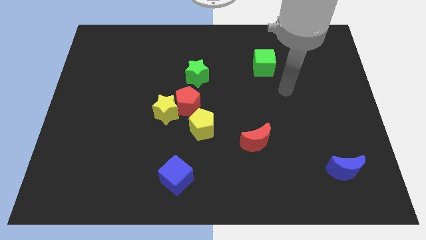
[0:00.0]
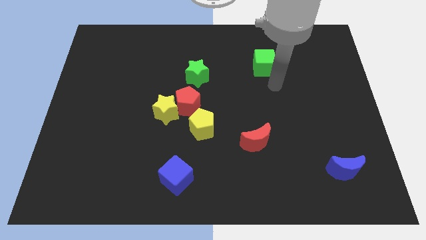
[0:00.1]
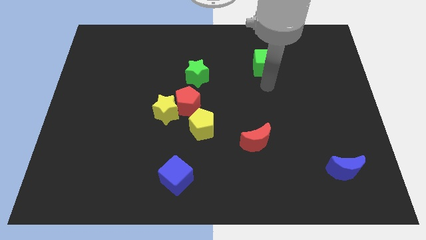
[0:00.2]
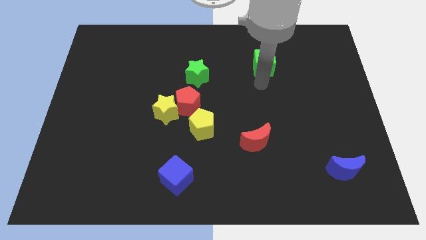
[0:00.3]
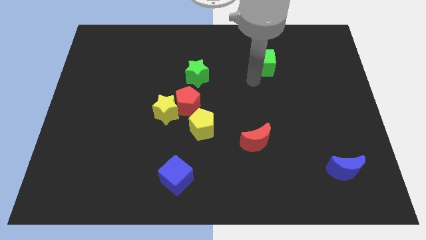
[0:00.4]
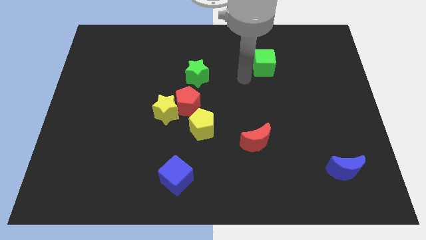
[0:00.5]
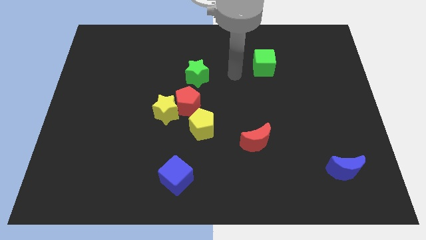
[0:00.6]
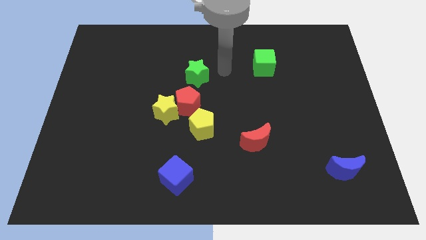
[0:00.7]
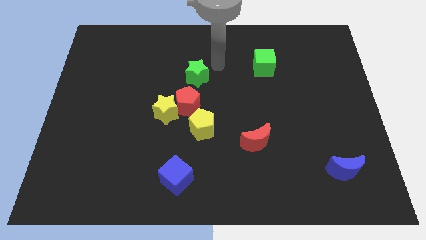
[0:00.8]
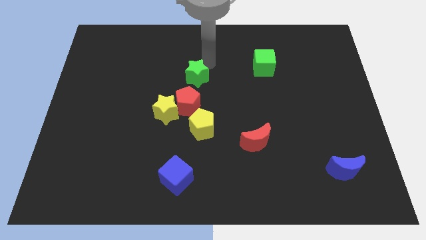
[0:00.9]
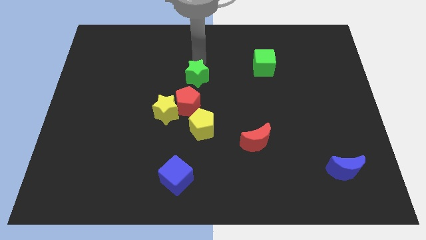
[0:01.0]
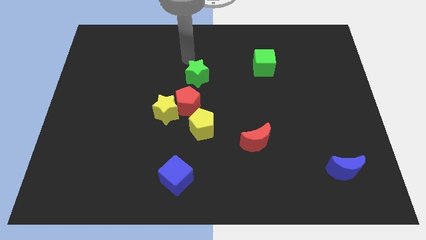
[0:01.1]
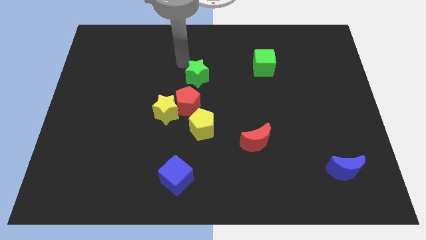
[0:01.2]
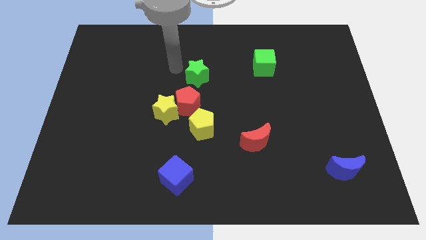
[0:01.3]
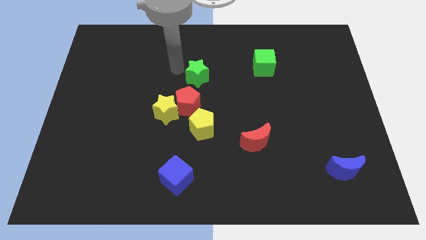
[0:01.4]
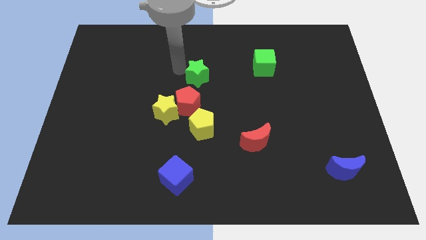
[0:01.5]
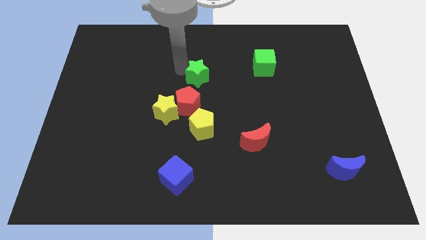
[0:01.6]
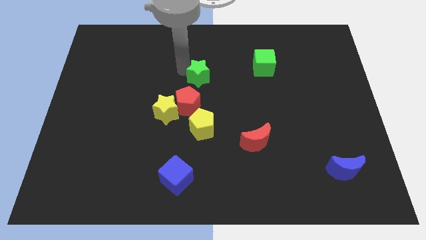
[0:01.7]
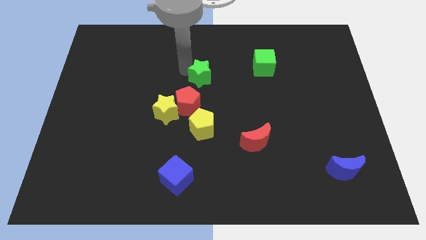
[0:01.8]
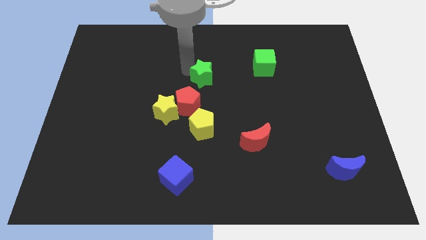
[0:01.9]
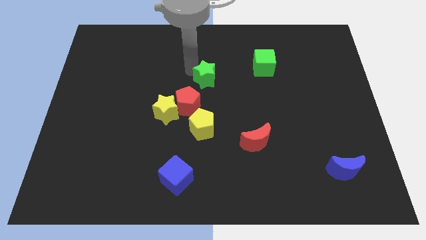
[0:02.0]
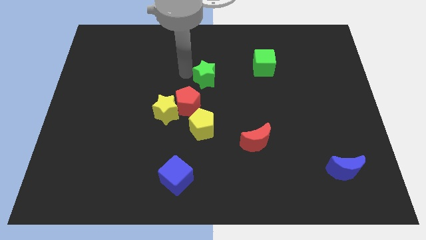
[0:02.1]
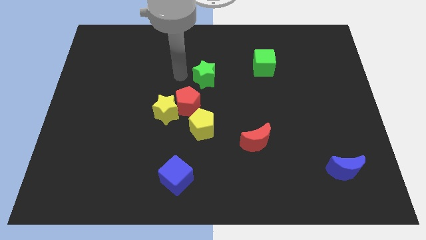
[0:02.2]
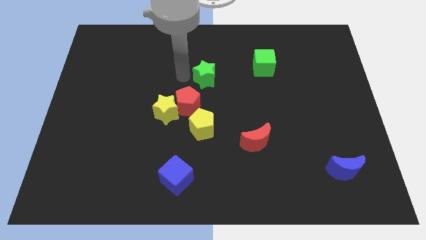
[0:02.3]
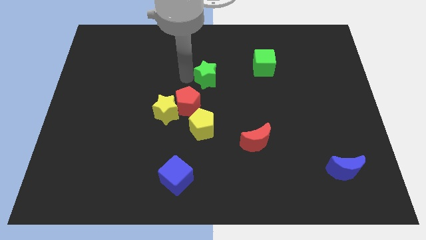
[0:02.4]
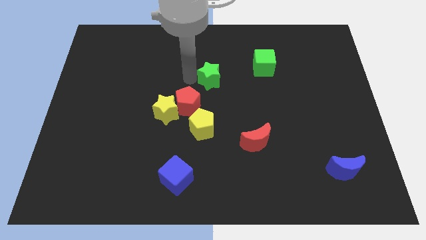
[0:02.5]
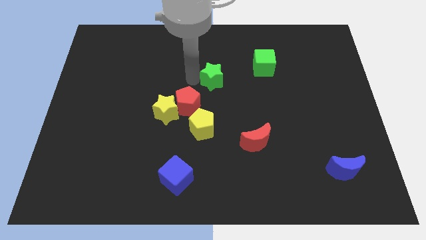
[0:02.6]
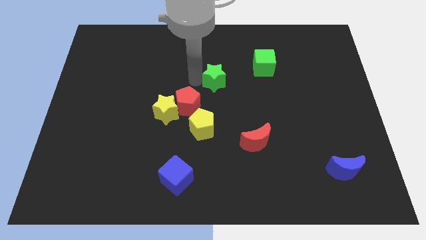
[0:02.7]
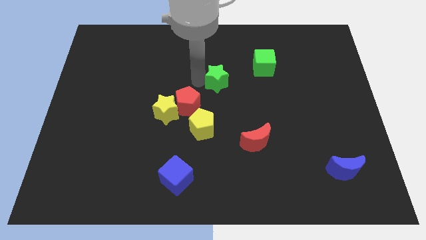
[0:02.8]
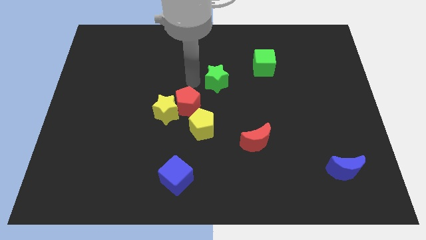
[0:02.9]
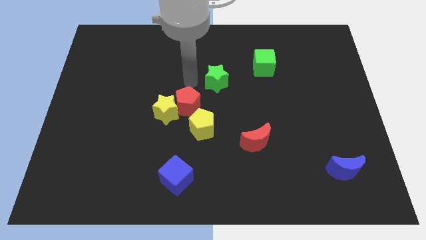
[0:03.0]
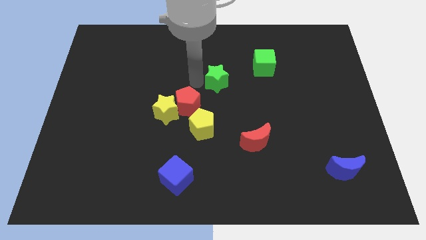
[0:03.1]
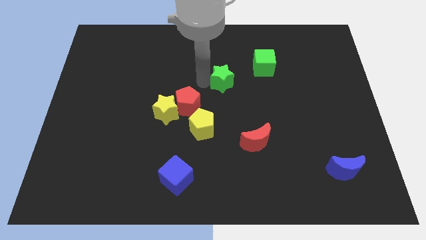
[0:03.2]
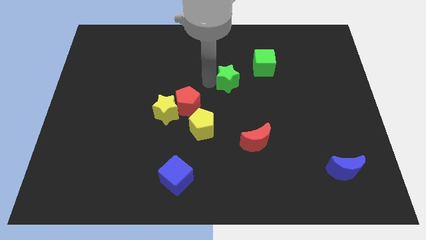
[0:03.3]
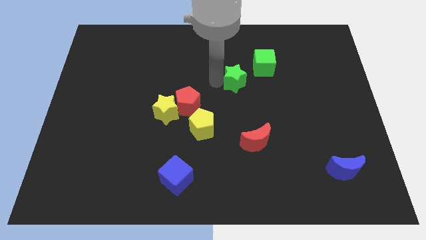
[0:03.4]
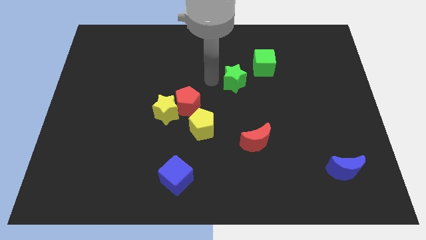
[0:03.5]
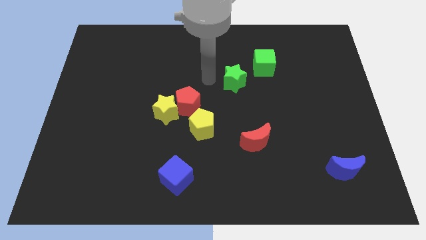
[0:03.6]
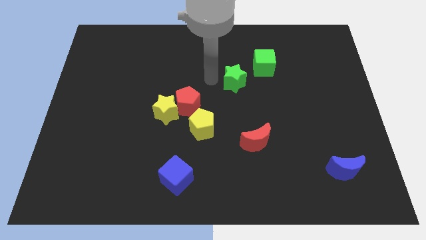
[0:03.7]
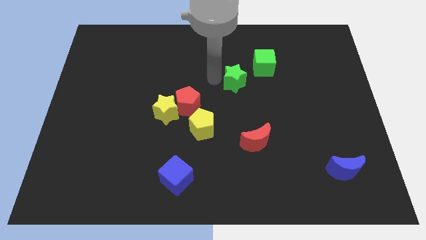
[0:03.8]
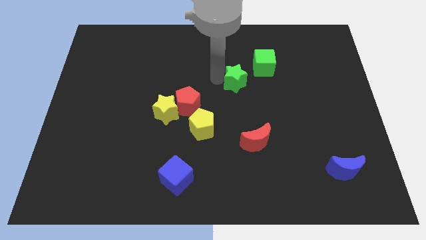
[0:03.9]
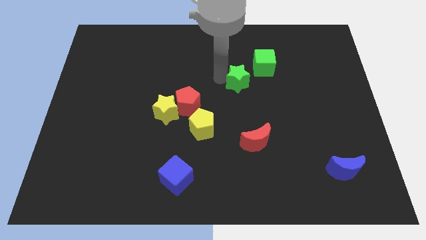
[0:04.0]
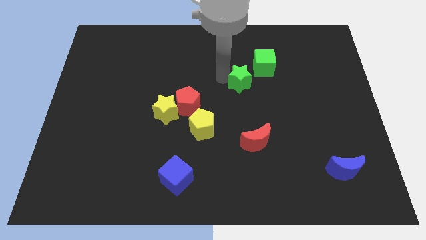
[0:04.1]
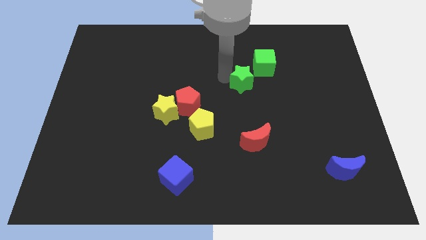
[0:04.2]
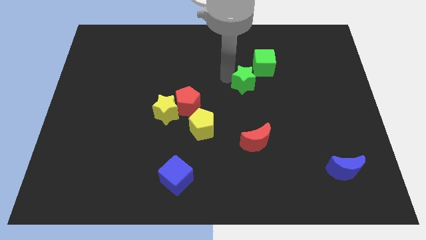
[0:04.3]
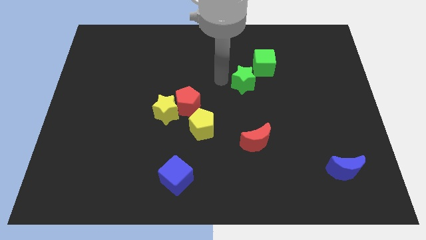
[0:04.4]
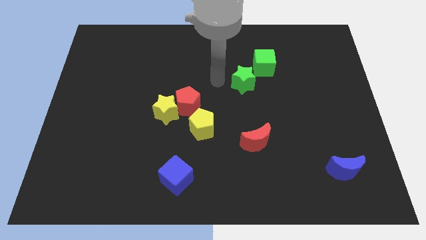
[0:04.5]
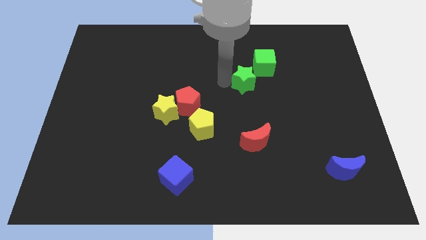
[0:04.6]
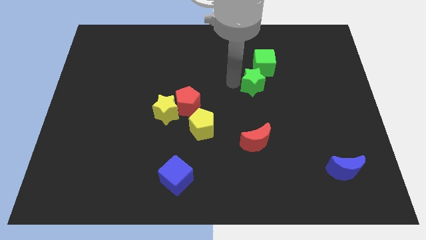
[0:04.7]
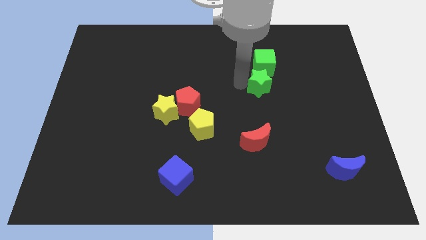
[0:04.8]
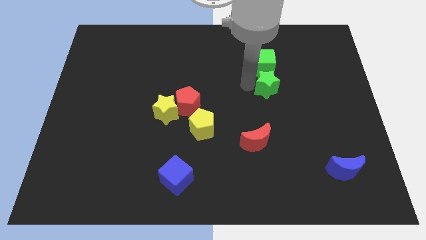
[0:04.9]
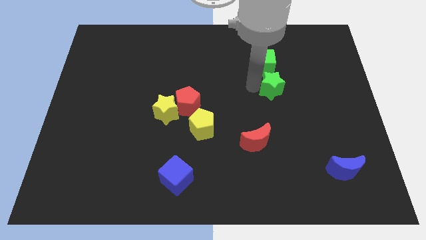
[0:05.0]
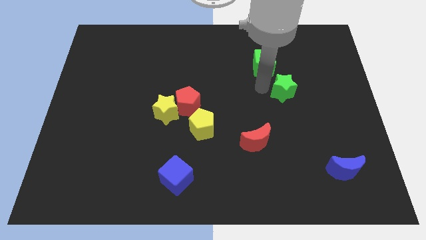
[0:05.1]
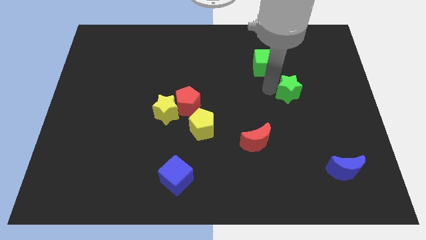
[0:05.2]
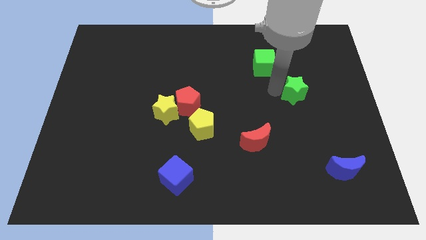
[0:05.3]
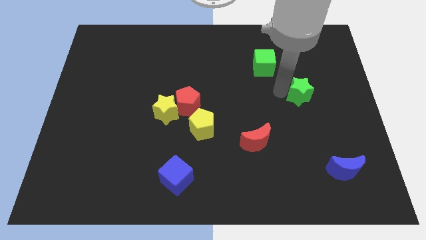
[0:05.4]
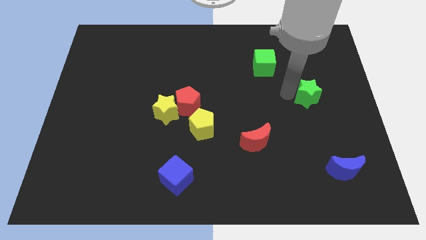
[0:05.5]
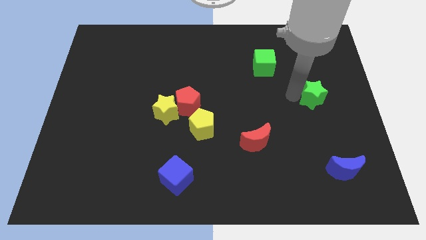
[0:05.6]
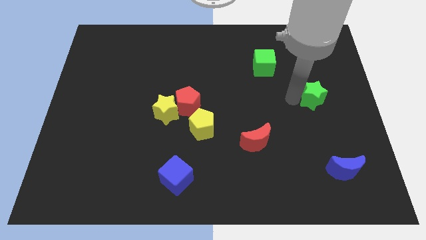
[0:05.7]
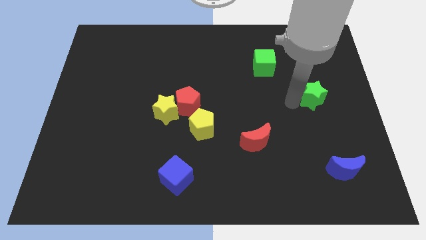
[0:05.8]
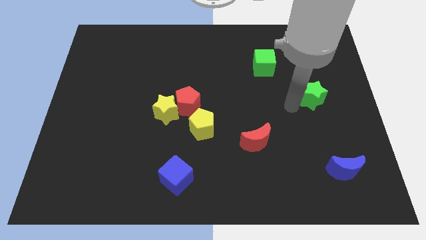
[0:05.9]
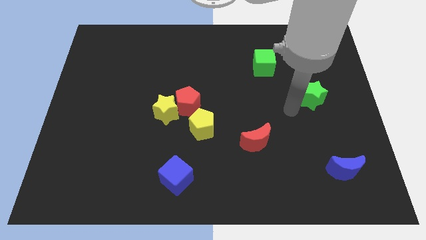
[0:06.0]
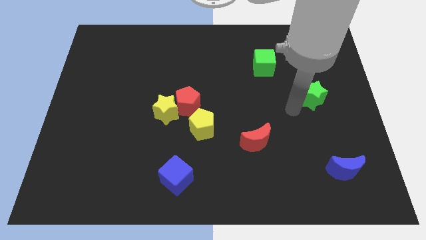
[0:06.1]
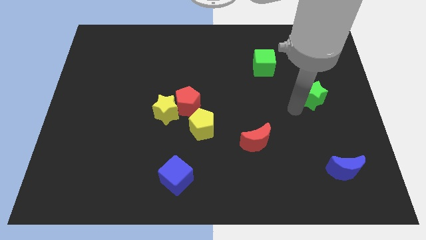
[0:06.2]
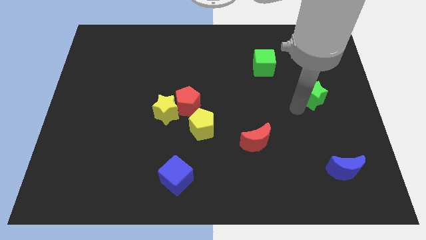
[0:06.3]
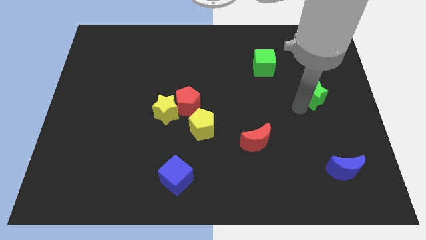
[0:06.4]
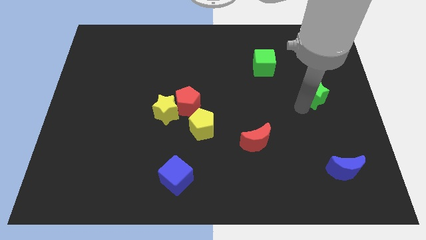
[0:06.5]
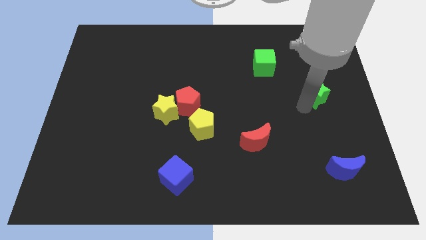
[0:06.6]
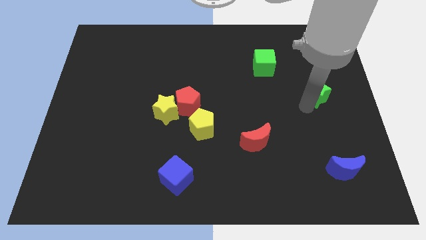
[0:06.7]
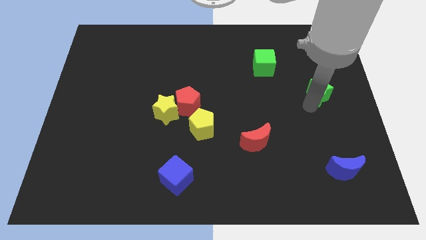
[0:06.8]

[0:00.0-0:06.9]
push the green star to the center right
